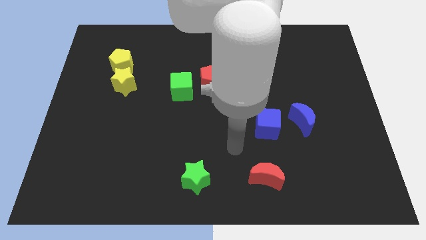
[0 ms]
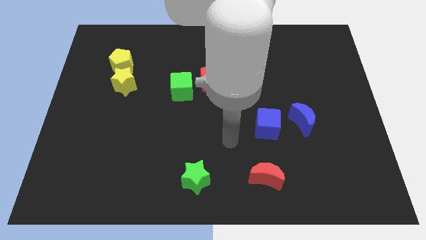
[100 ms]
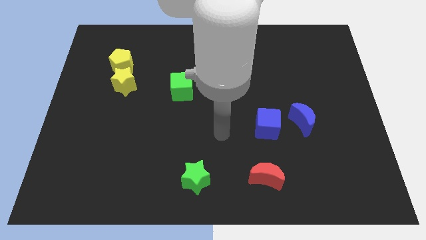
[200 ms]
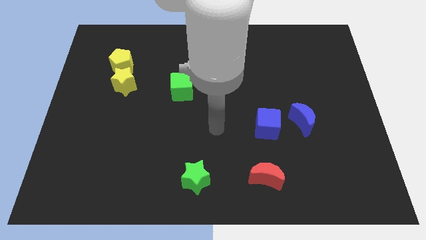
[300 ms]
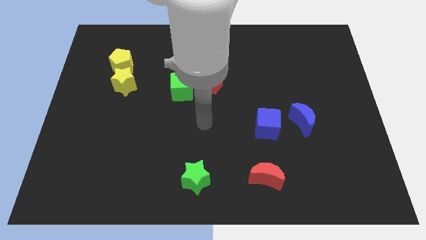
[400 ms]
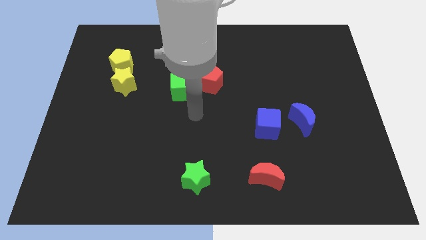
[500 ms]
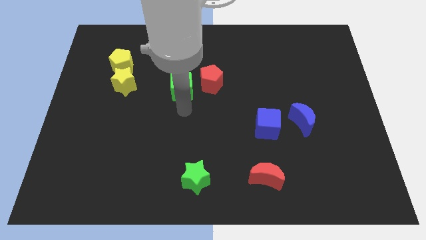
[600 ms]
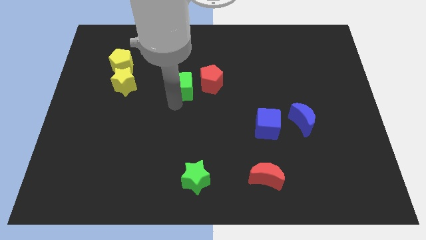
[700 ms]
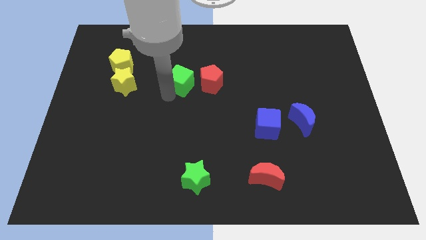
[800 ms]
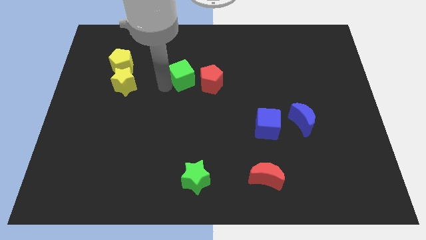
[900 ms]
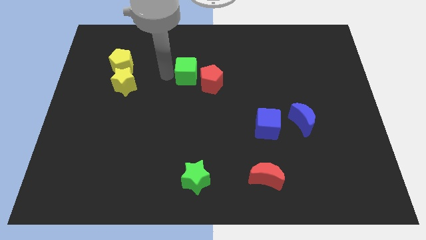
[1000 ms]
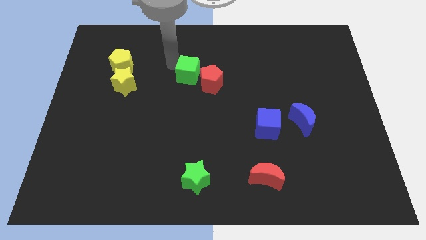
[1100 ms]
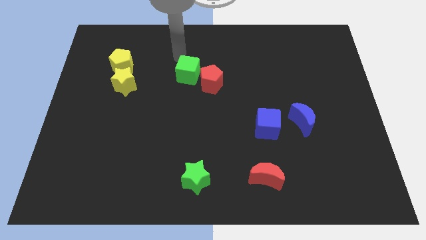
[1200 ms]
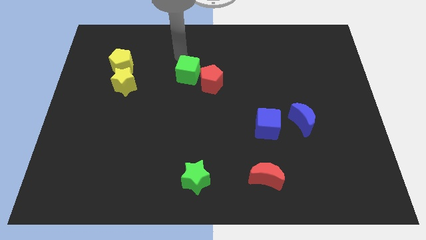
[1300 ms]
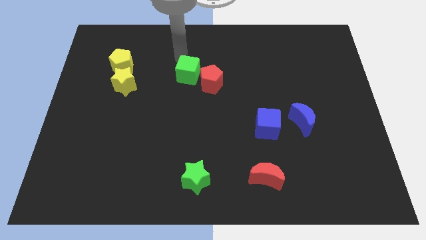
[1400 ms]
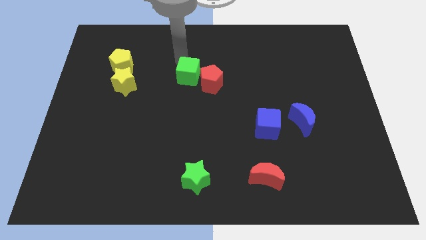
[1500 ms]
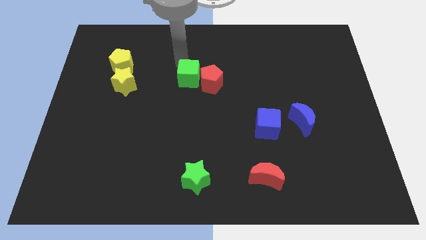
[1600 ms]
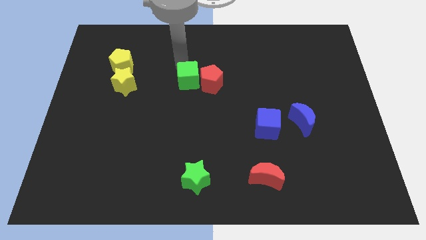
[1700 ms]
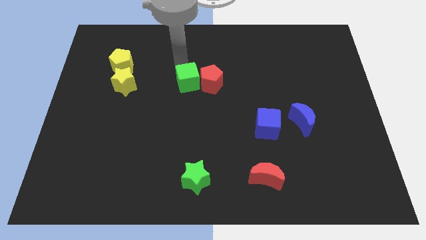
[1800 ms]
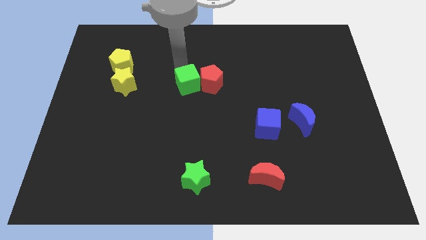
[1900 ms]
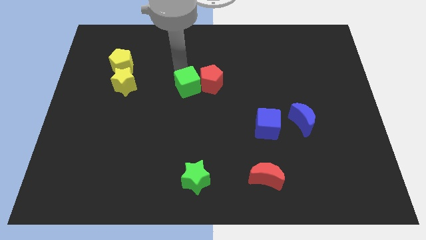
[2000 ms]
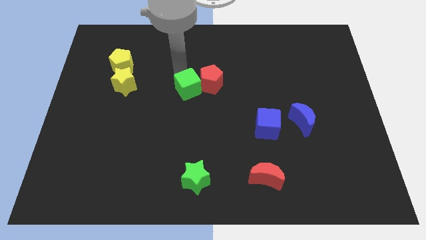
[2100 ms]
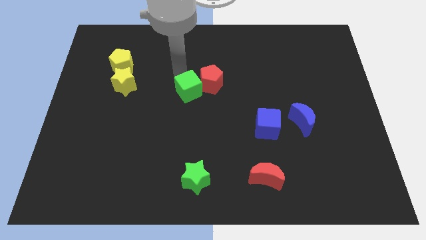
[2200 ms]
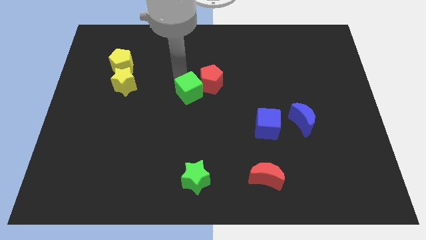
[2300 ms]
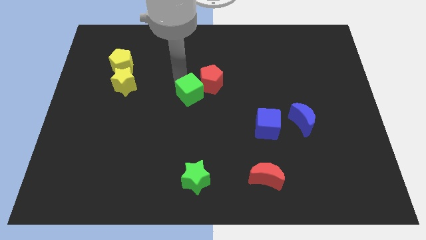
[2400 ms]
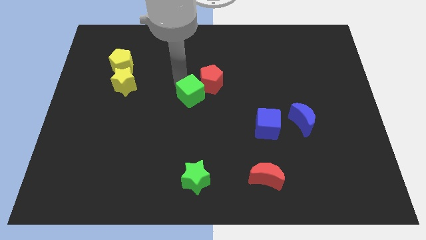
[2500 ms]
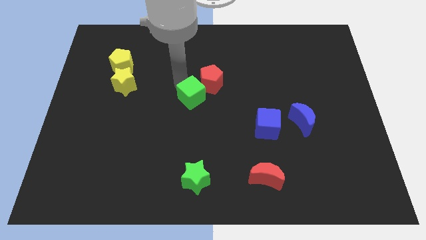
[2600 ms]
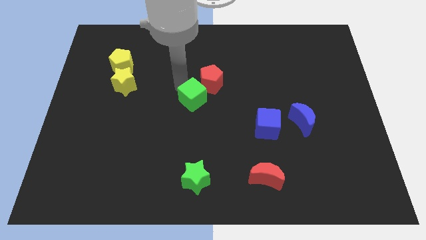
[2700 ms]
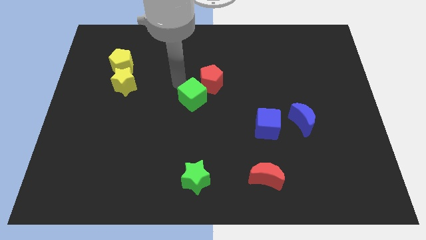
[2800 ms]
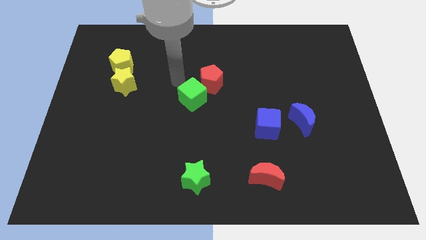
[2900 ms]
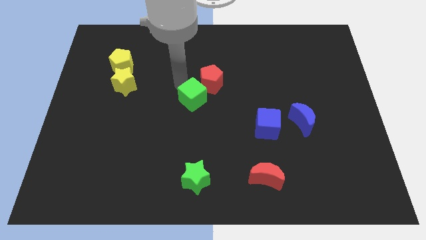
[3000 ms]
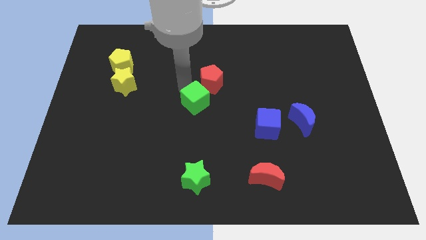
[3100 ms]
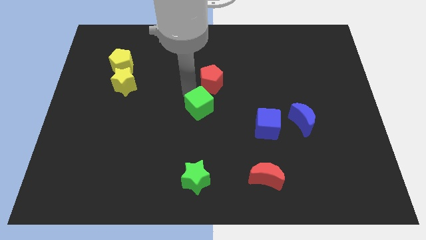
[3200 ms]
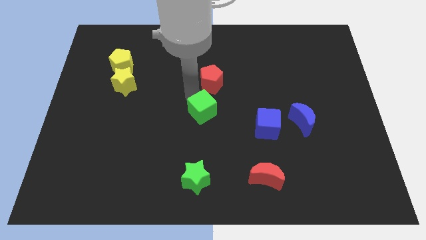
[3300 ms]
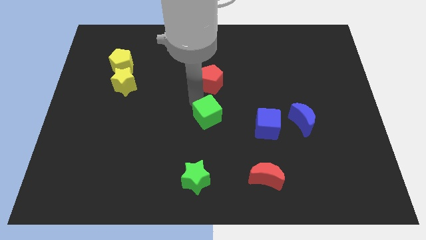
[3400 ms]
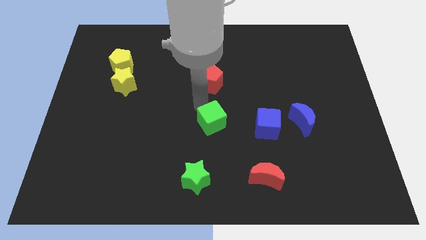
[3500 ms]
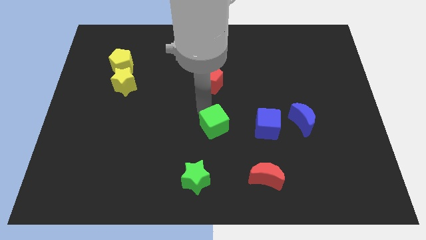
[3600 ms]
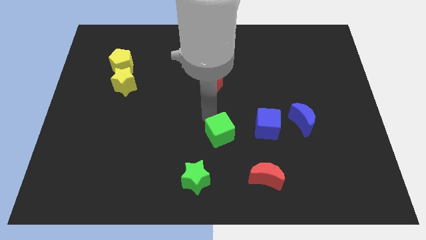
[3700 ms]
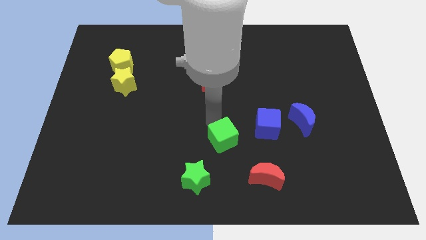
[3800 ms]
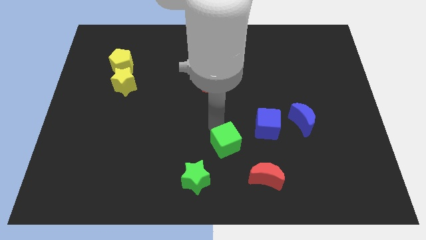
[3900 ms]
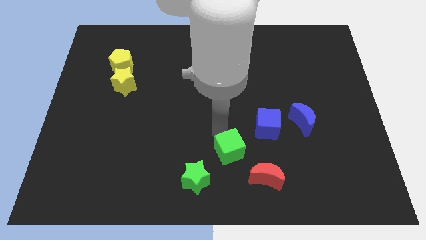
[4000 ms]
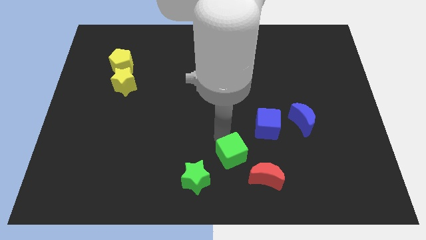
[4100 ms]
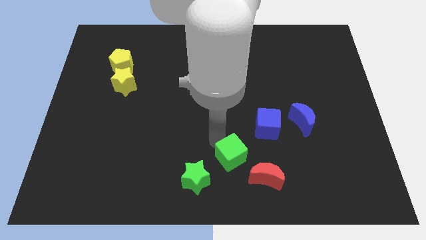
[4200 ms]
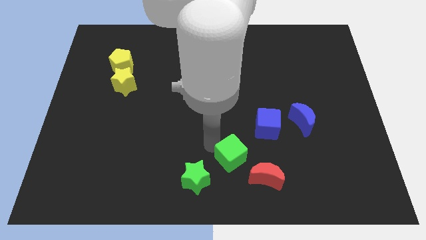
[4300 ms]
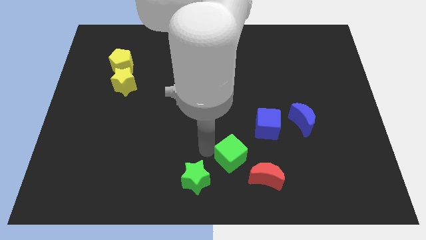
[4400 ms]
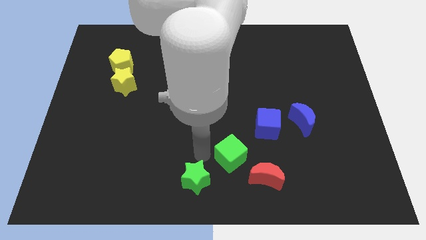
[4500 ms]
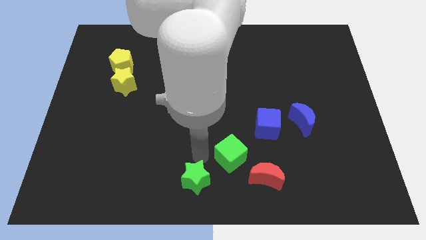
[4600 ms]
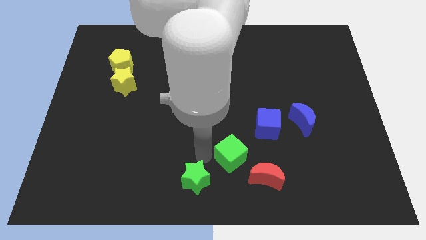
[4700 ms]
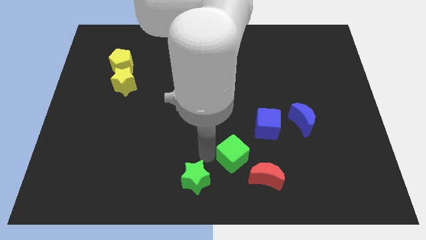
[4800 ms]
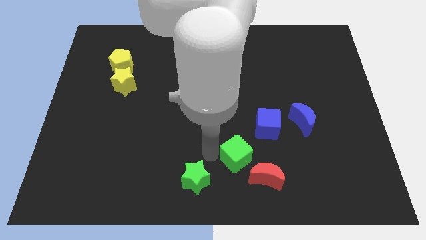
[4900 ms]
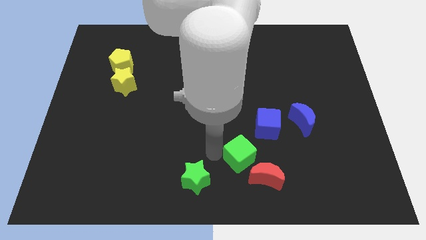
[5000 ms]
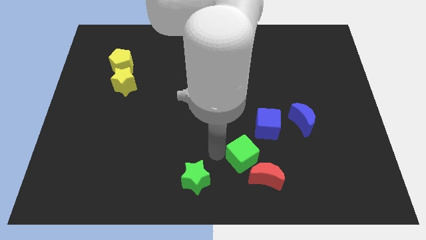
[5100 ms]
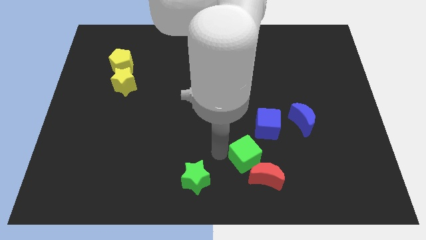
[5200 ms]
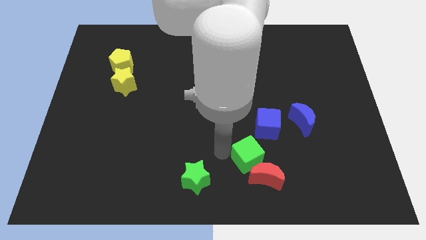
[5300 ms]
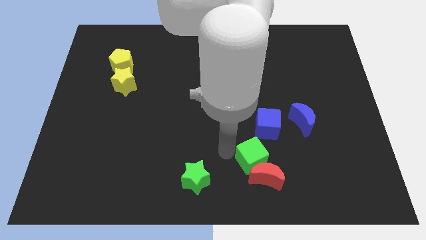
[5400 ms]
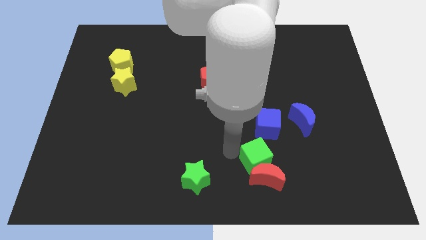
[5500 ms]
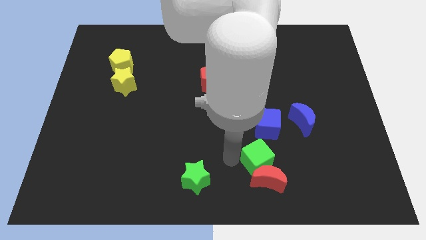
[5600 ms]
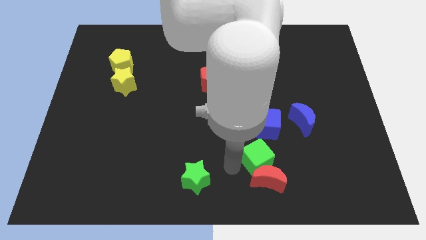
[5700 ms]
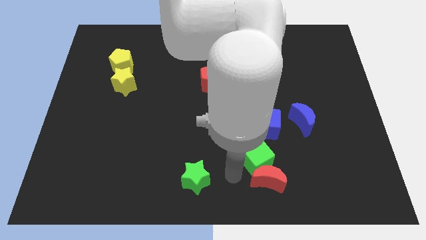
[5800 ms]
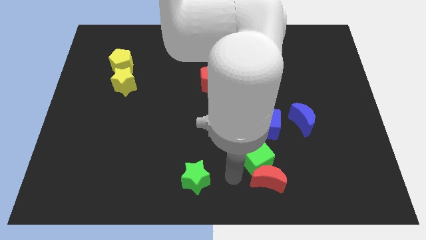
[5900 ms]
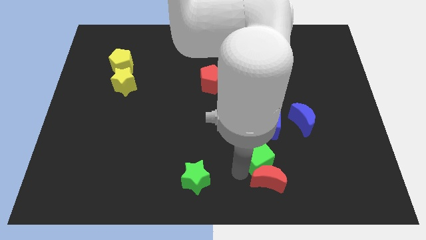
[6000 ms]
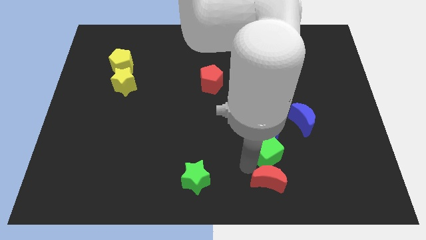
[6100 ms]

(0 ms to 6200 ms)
put the green cube to the bottom left of the blue moon

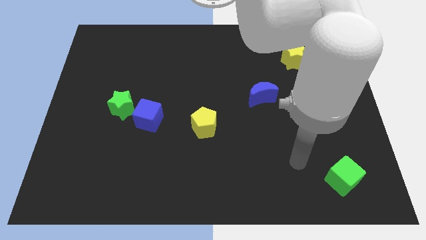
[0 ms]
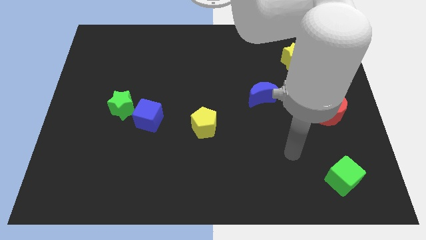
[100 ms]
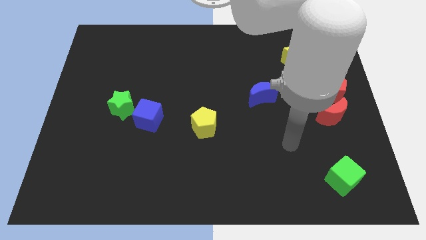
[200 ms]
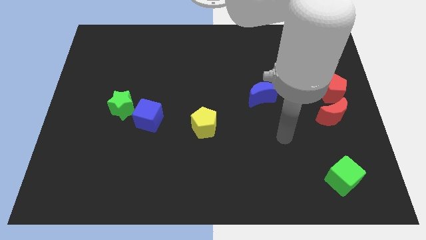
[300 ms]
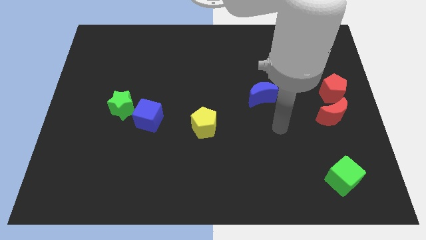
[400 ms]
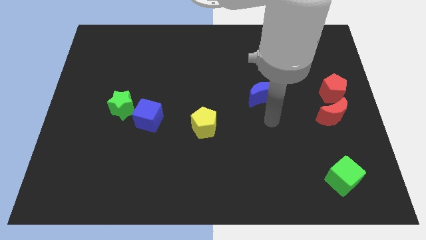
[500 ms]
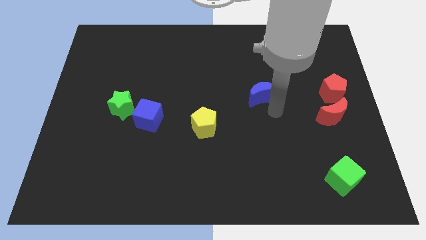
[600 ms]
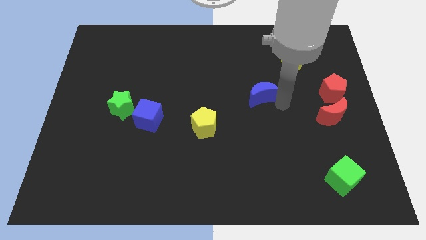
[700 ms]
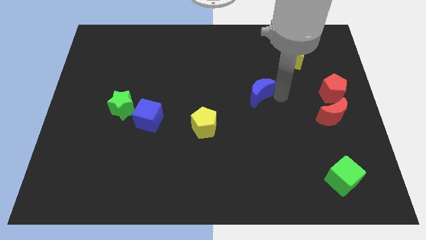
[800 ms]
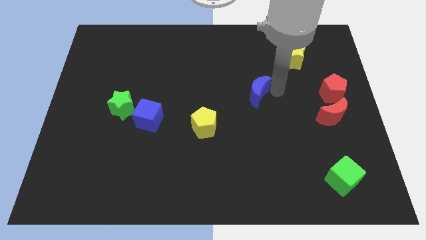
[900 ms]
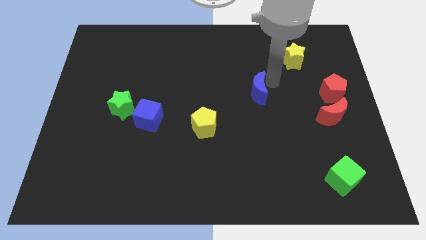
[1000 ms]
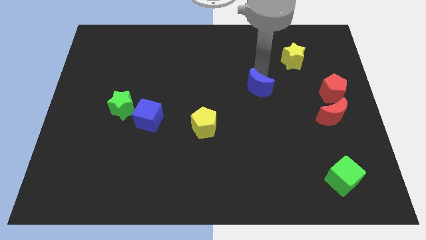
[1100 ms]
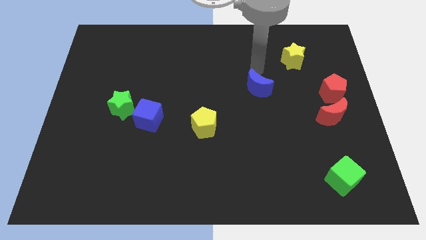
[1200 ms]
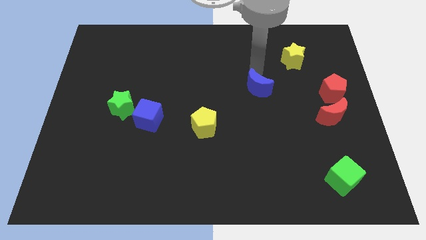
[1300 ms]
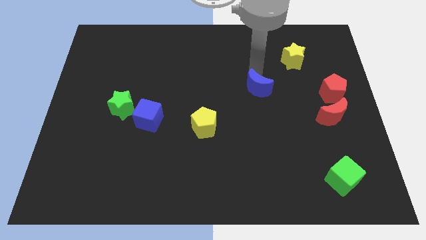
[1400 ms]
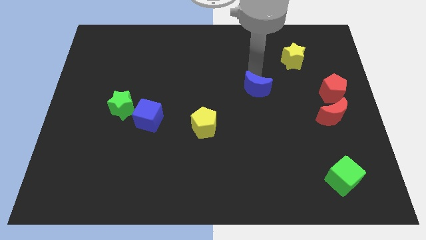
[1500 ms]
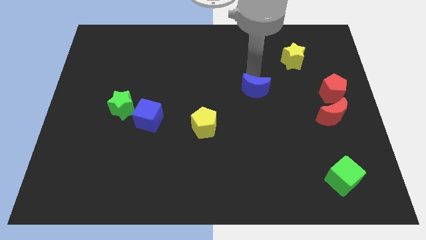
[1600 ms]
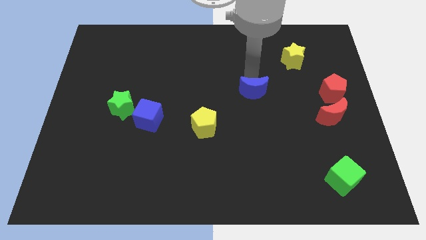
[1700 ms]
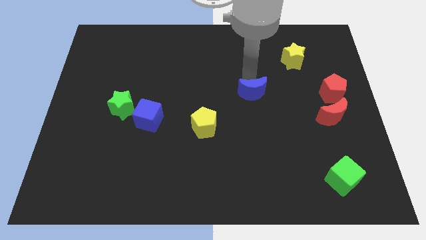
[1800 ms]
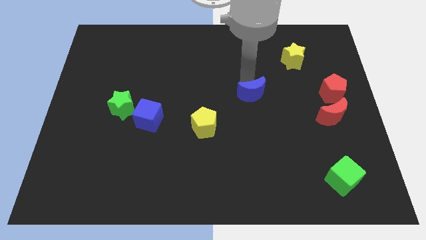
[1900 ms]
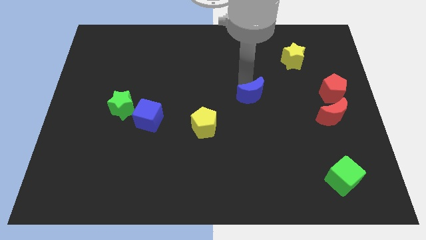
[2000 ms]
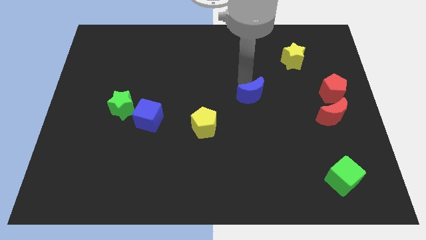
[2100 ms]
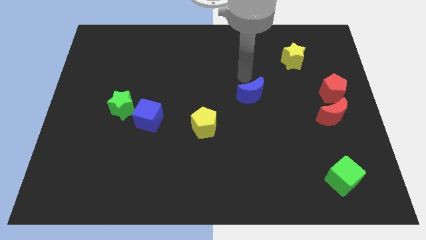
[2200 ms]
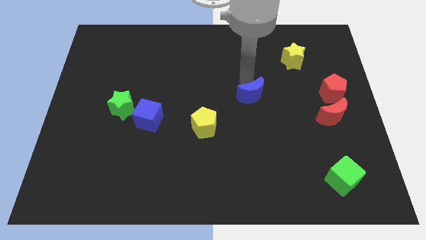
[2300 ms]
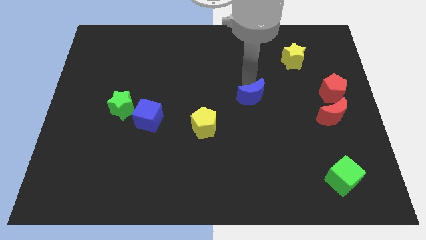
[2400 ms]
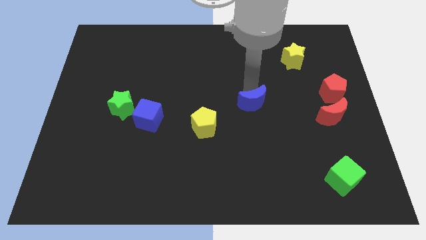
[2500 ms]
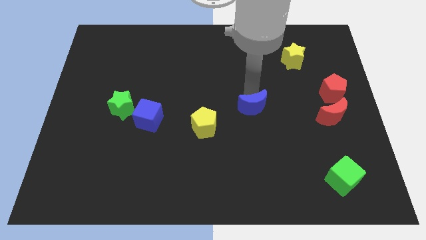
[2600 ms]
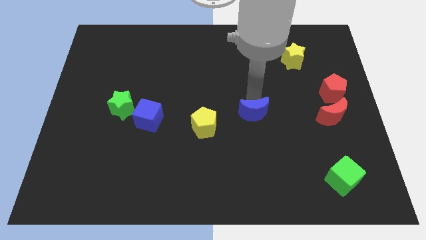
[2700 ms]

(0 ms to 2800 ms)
slide the blue moon to the right of the yellow pentagon
